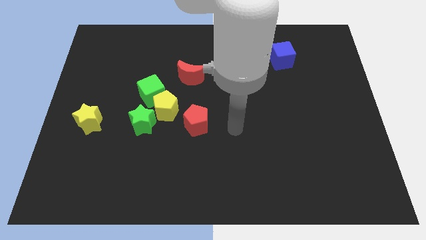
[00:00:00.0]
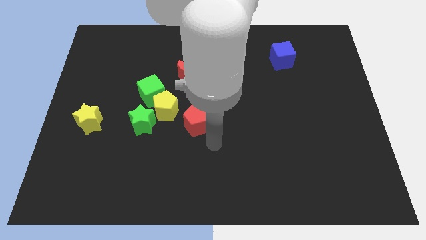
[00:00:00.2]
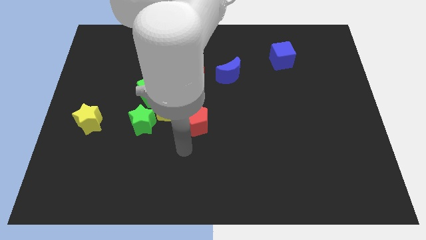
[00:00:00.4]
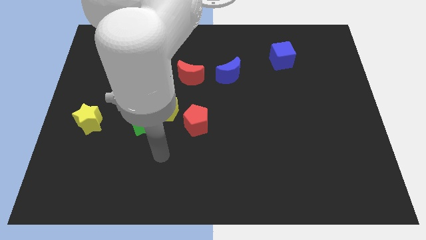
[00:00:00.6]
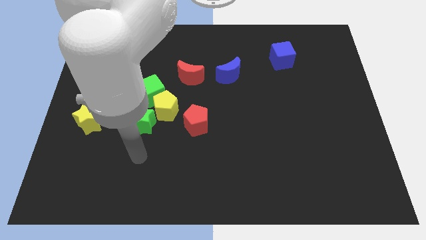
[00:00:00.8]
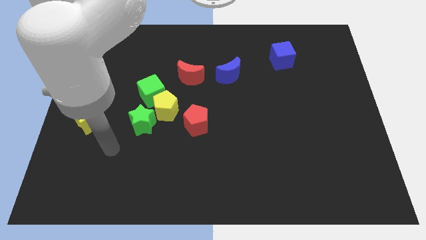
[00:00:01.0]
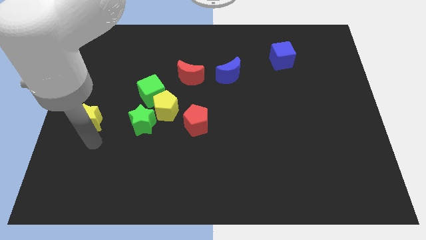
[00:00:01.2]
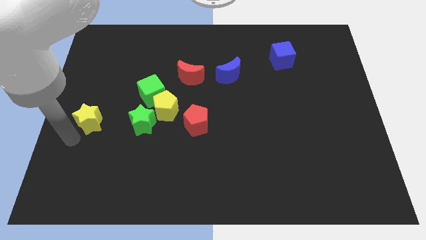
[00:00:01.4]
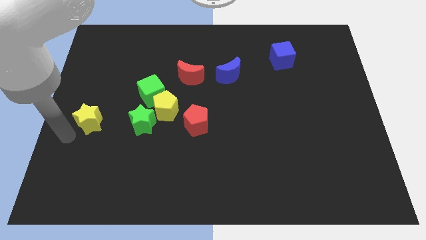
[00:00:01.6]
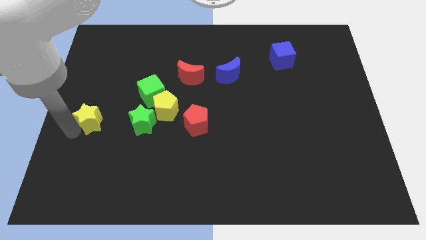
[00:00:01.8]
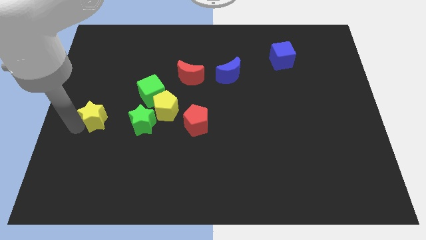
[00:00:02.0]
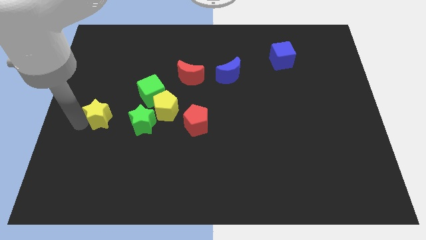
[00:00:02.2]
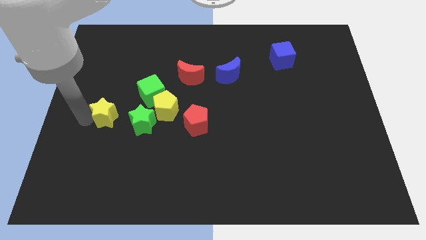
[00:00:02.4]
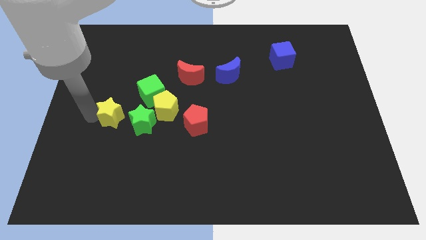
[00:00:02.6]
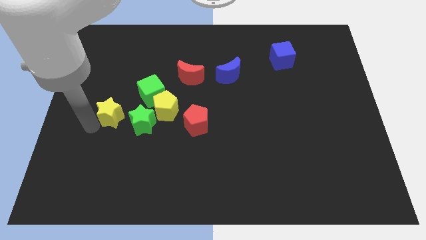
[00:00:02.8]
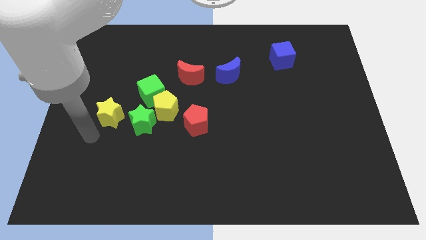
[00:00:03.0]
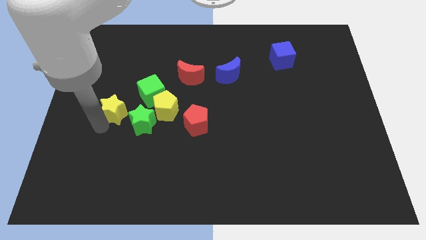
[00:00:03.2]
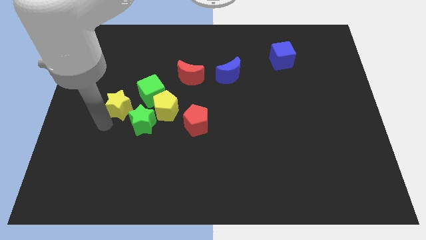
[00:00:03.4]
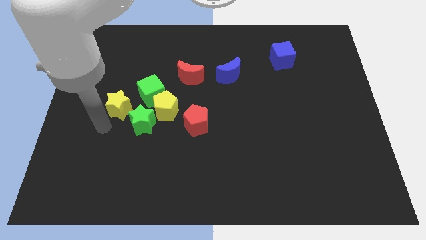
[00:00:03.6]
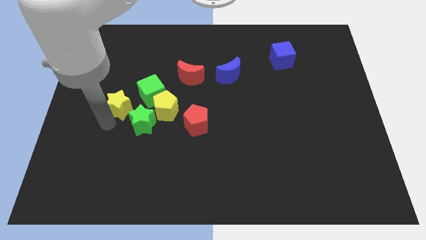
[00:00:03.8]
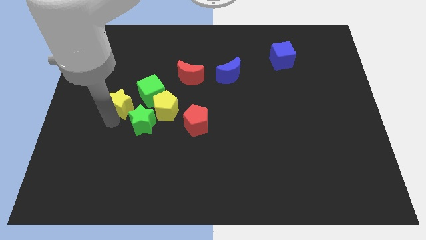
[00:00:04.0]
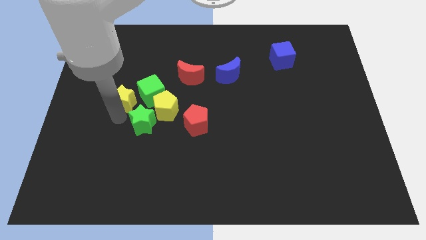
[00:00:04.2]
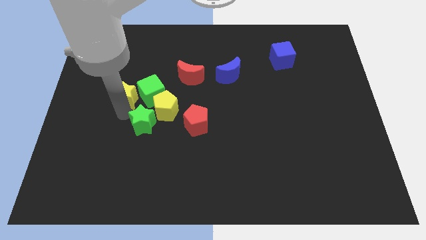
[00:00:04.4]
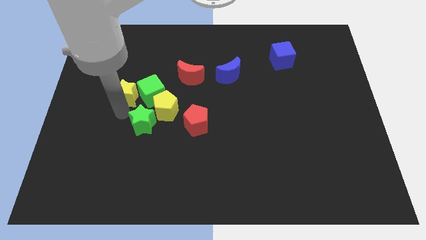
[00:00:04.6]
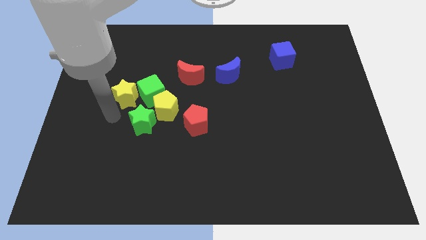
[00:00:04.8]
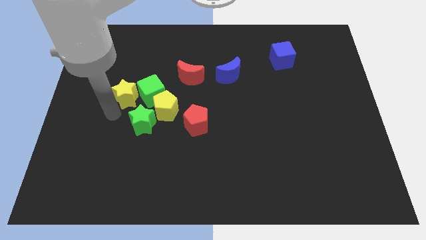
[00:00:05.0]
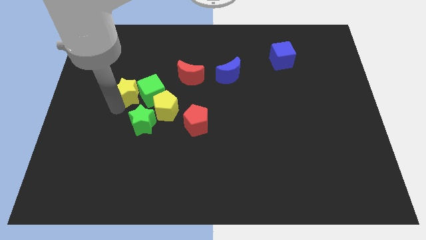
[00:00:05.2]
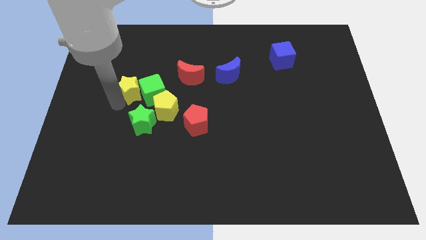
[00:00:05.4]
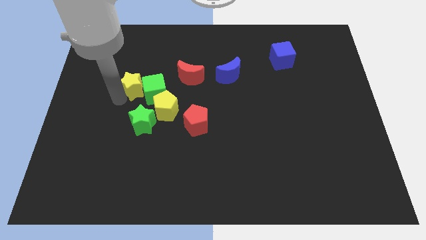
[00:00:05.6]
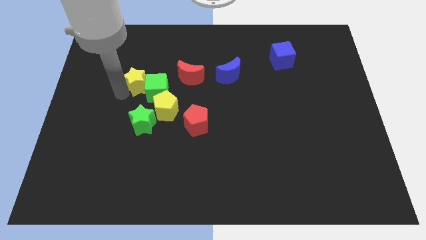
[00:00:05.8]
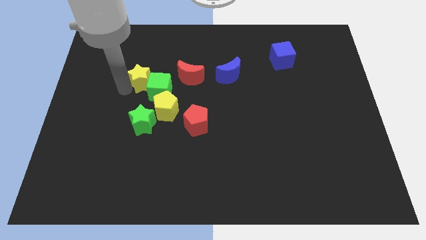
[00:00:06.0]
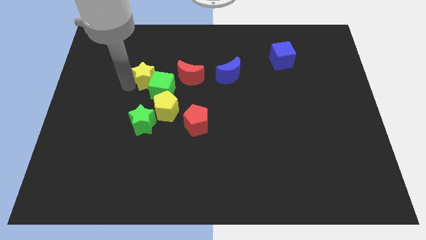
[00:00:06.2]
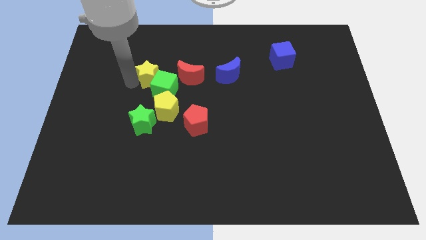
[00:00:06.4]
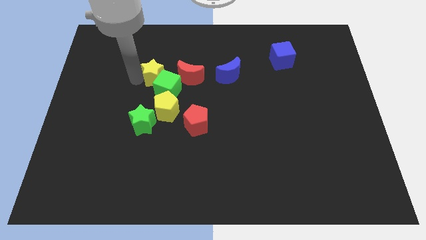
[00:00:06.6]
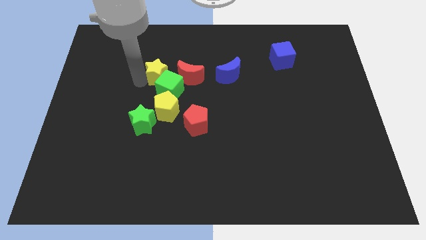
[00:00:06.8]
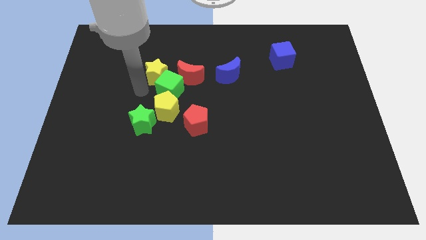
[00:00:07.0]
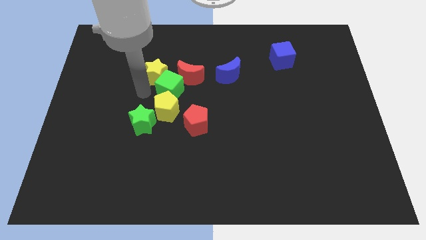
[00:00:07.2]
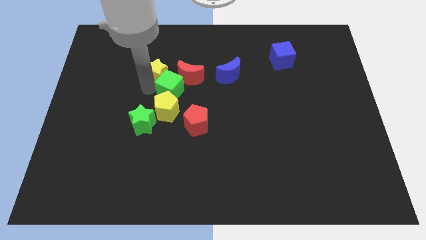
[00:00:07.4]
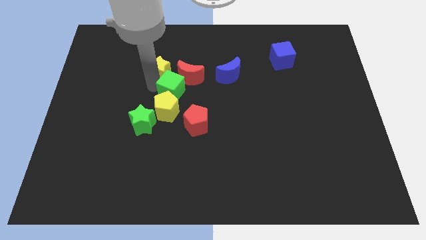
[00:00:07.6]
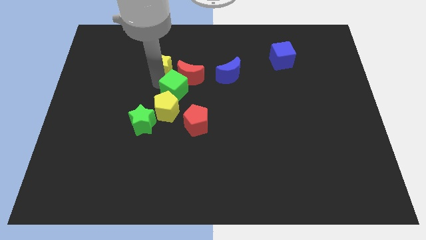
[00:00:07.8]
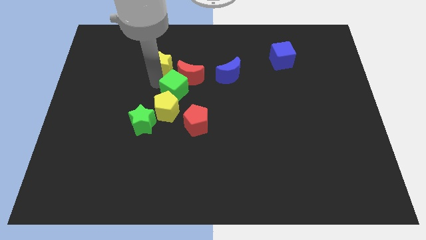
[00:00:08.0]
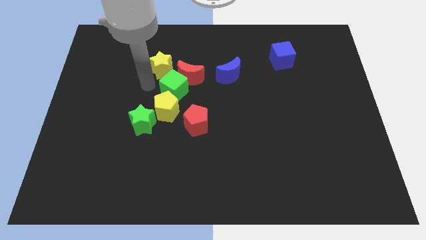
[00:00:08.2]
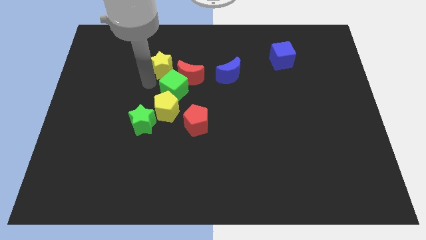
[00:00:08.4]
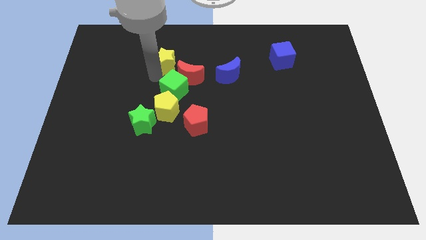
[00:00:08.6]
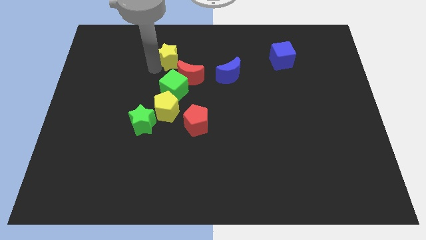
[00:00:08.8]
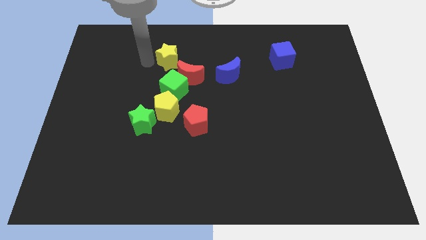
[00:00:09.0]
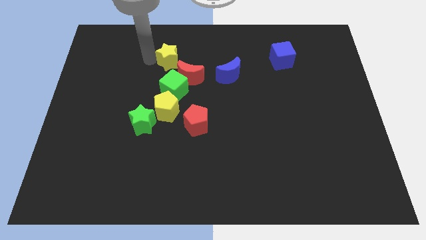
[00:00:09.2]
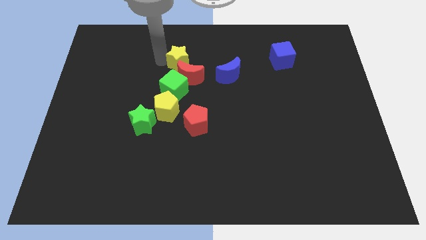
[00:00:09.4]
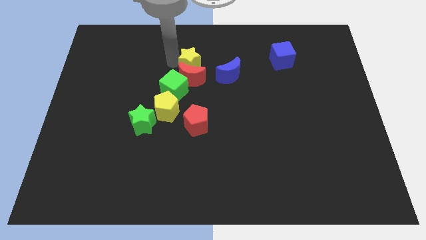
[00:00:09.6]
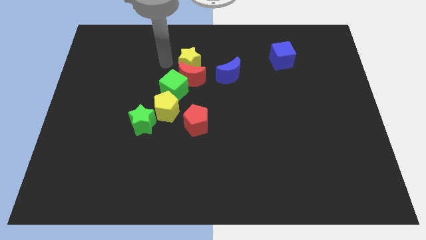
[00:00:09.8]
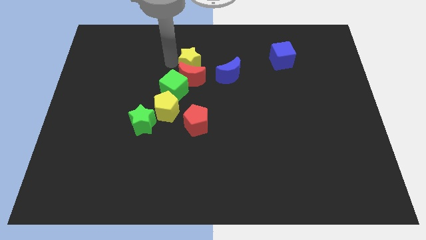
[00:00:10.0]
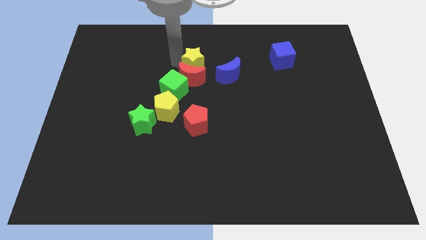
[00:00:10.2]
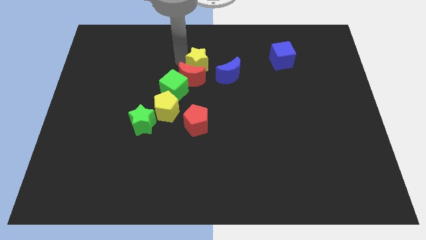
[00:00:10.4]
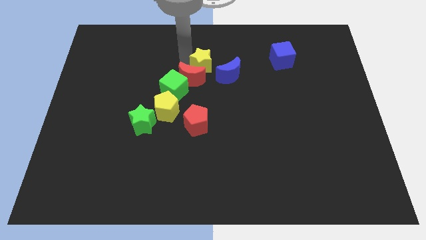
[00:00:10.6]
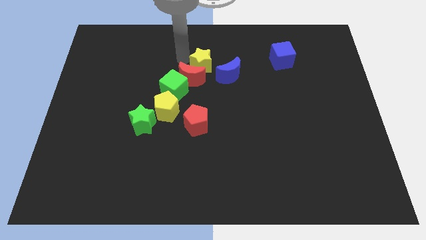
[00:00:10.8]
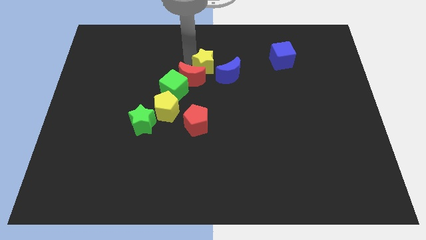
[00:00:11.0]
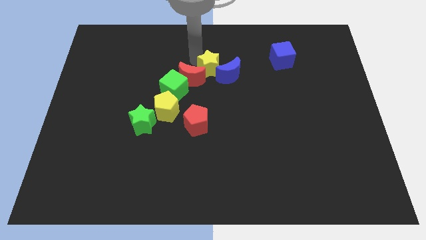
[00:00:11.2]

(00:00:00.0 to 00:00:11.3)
move the yellow star next to the blue moon

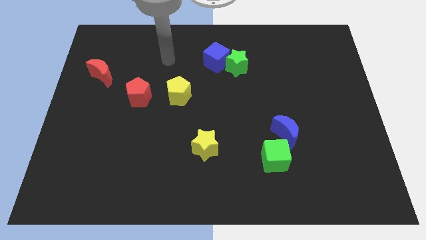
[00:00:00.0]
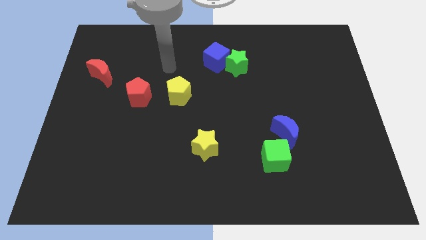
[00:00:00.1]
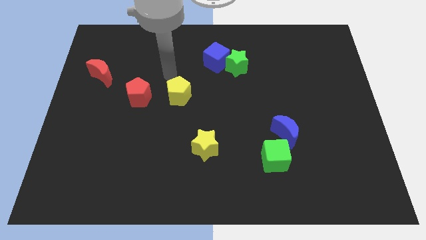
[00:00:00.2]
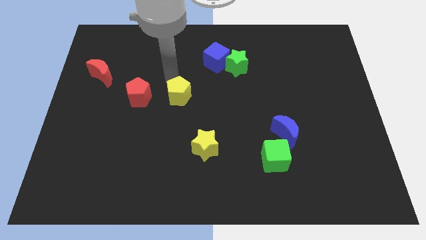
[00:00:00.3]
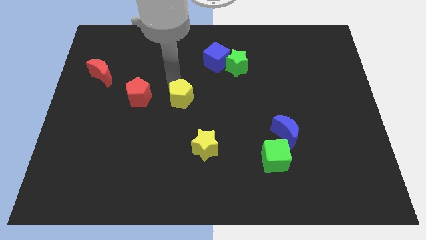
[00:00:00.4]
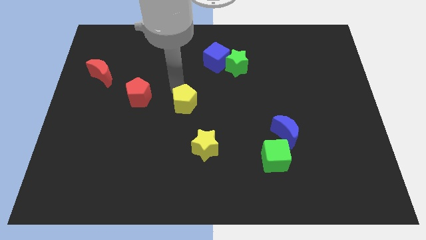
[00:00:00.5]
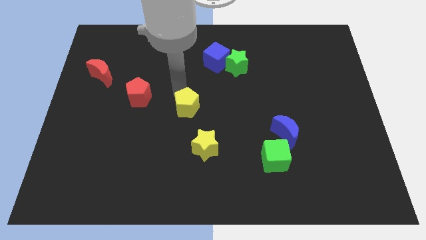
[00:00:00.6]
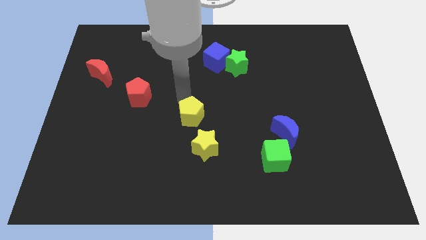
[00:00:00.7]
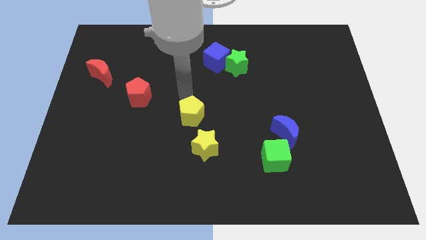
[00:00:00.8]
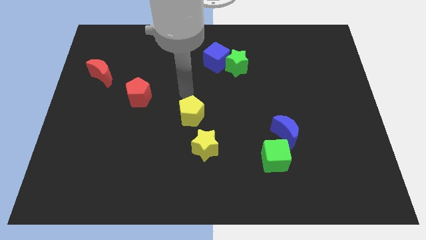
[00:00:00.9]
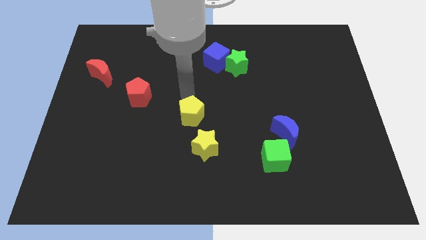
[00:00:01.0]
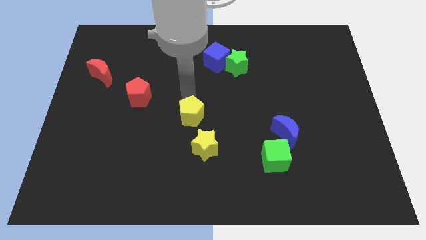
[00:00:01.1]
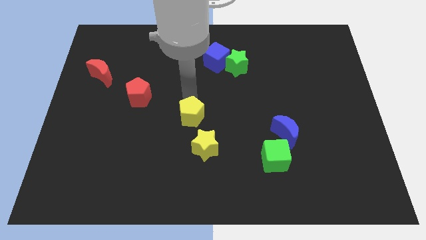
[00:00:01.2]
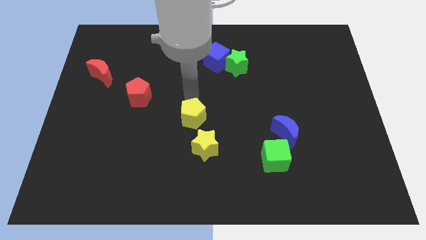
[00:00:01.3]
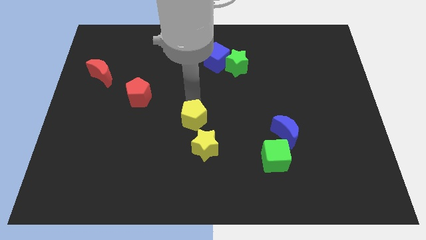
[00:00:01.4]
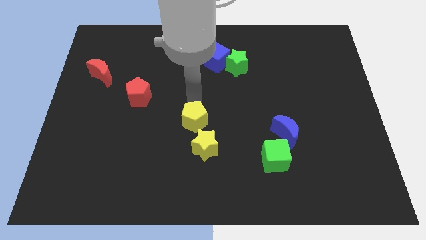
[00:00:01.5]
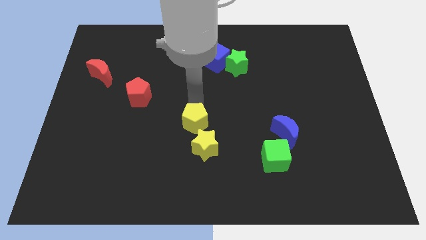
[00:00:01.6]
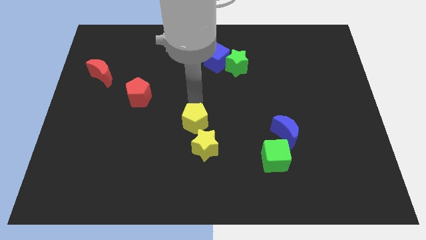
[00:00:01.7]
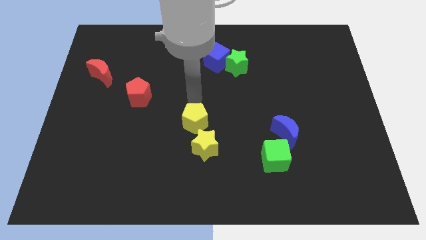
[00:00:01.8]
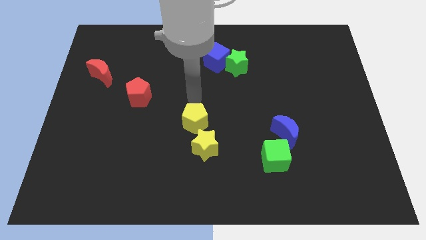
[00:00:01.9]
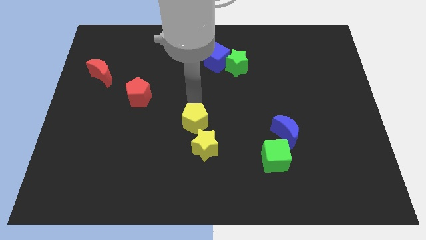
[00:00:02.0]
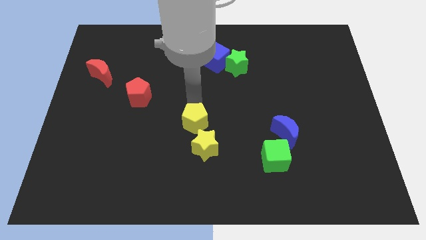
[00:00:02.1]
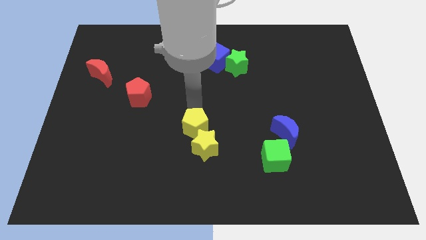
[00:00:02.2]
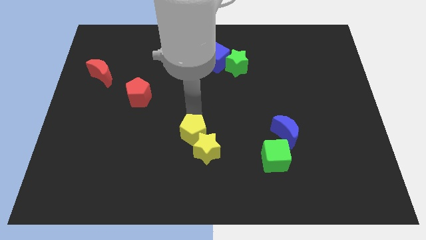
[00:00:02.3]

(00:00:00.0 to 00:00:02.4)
move the yellow pentagon close to the yellow star
